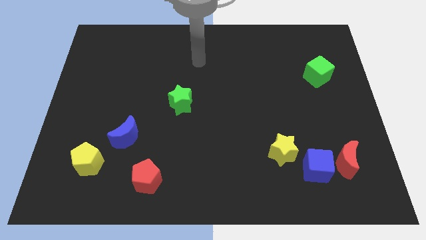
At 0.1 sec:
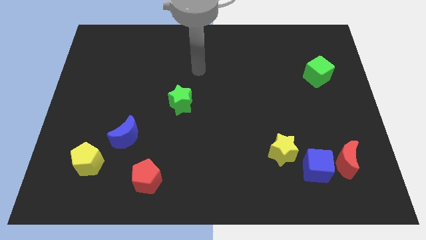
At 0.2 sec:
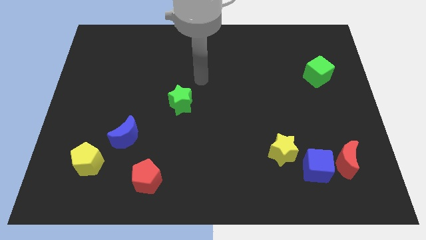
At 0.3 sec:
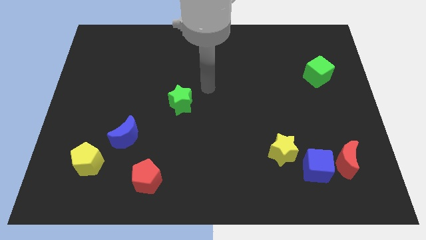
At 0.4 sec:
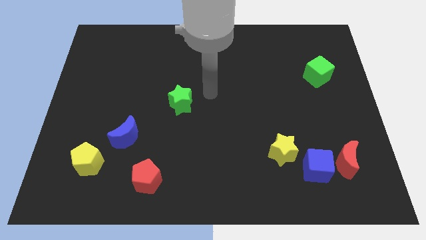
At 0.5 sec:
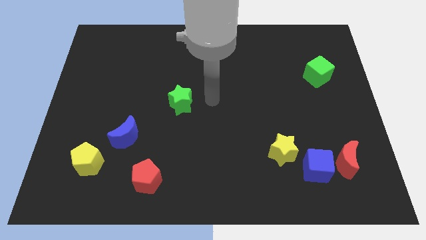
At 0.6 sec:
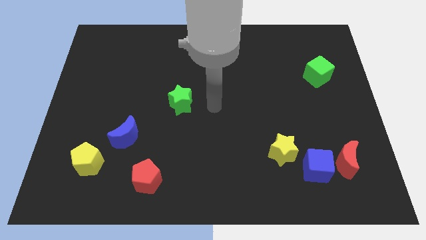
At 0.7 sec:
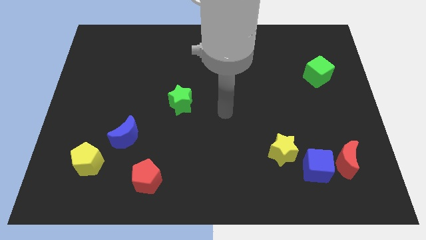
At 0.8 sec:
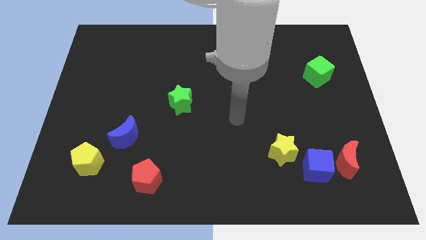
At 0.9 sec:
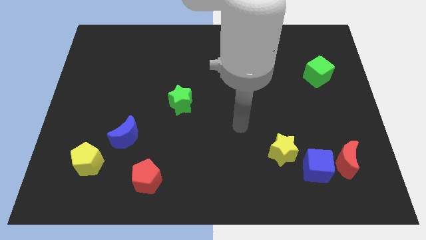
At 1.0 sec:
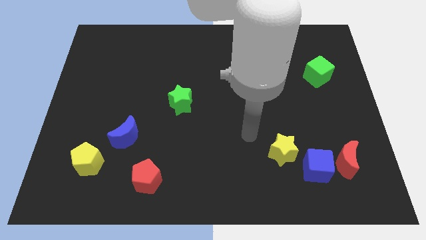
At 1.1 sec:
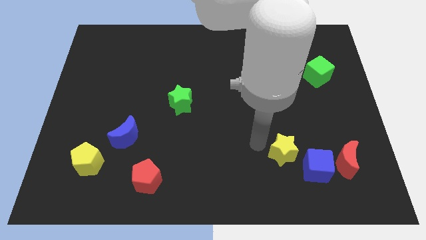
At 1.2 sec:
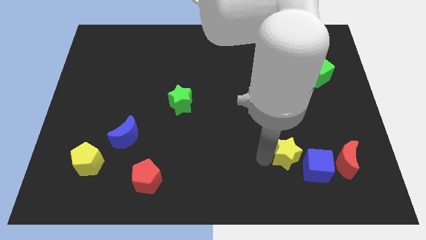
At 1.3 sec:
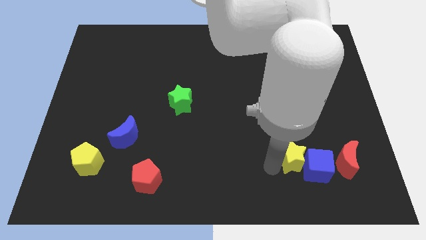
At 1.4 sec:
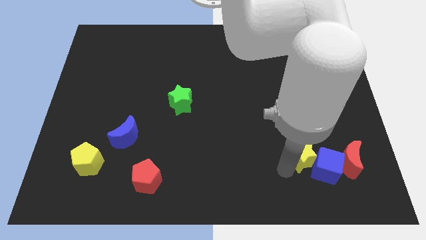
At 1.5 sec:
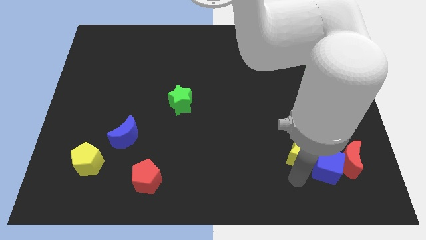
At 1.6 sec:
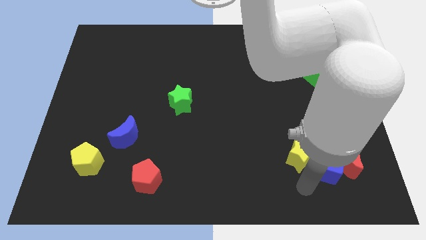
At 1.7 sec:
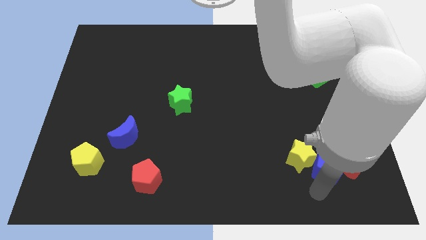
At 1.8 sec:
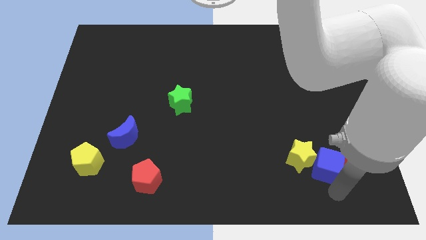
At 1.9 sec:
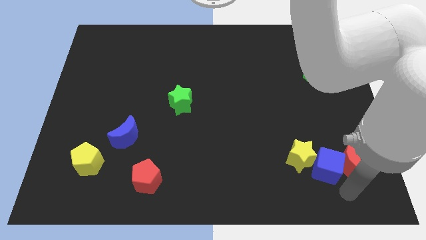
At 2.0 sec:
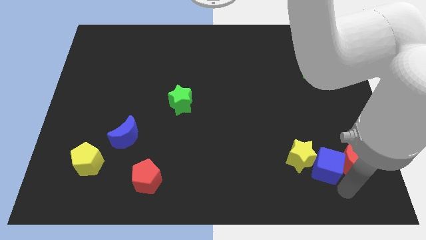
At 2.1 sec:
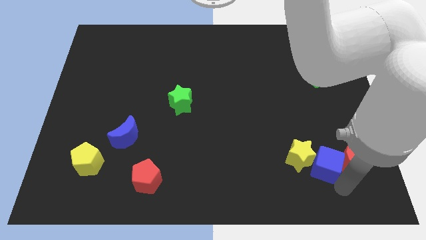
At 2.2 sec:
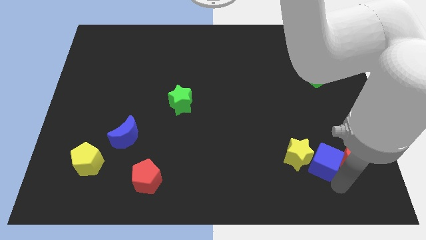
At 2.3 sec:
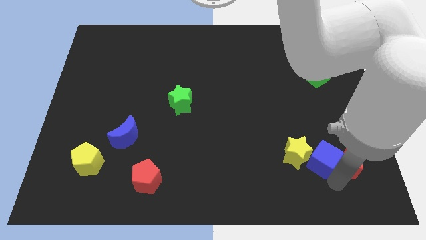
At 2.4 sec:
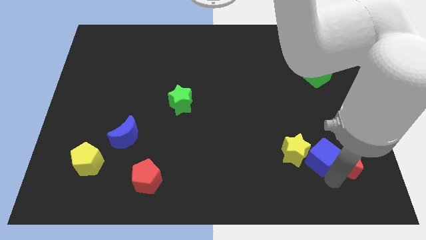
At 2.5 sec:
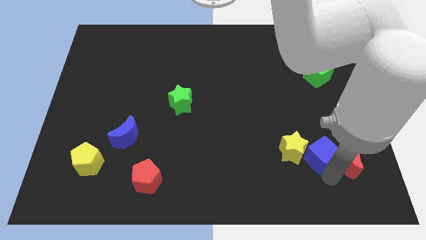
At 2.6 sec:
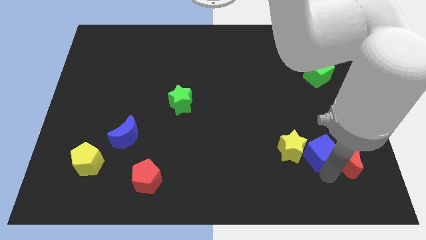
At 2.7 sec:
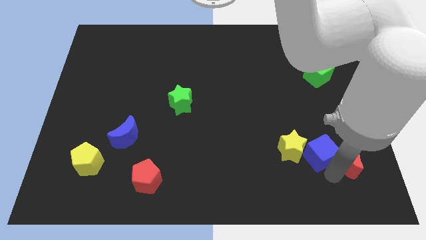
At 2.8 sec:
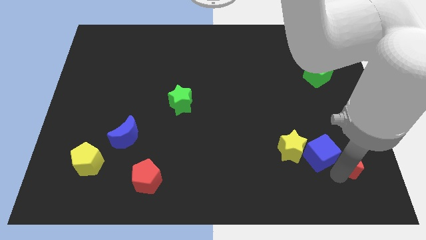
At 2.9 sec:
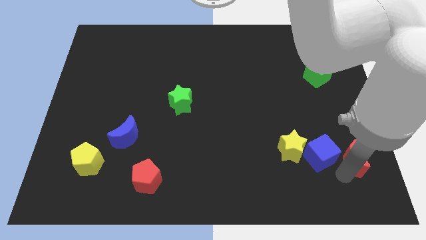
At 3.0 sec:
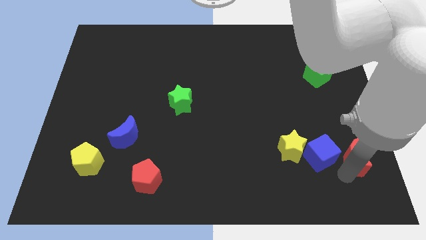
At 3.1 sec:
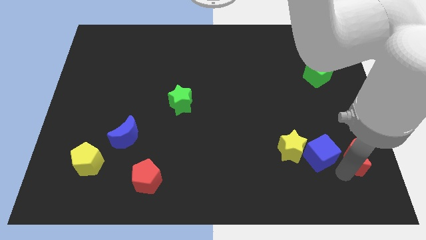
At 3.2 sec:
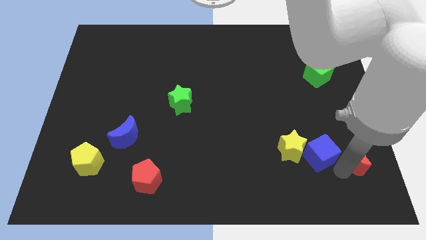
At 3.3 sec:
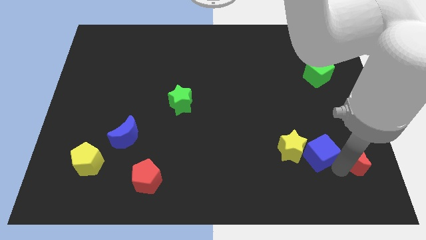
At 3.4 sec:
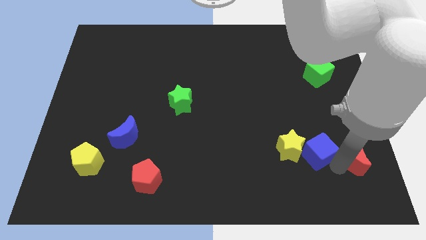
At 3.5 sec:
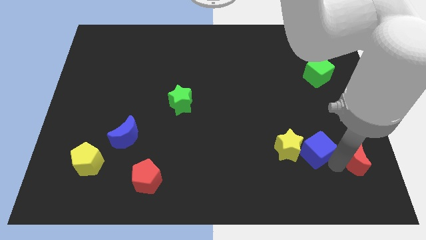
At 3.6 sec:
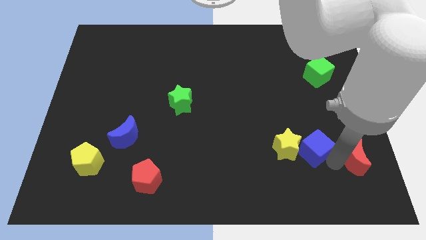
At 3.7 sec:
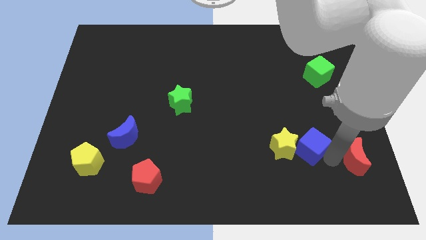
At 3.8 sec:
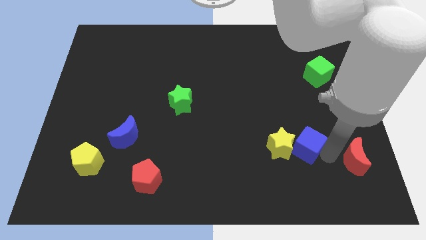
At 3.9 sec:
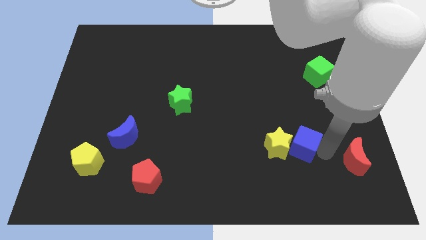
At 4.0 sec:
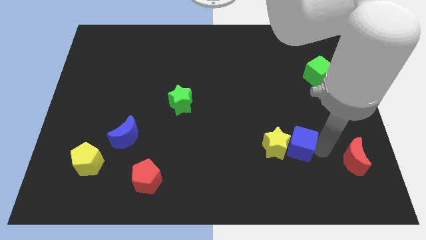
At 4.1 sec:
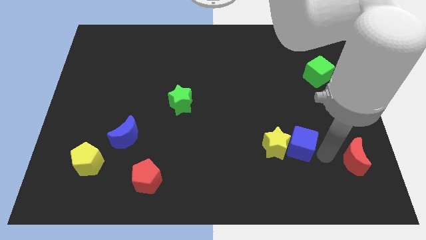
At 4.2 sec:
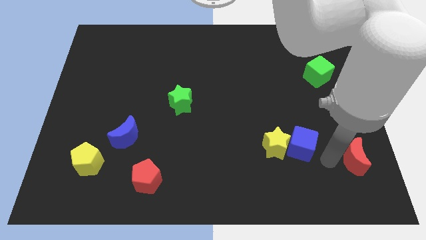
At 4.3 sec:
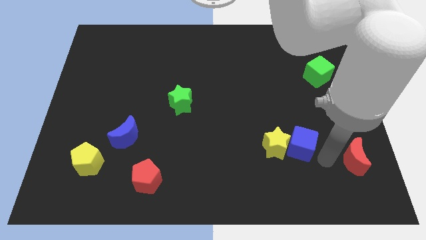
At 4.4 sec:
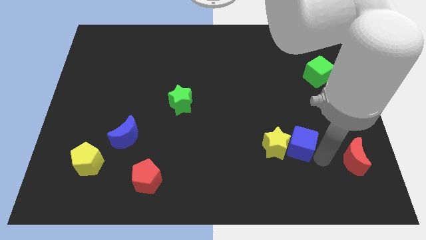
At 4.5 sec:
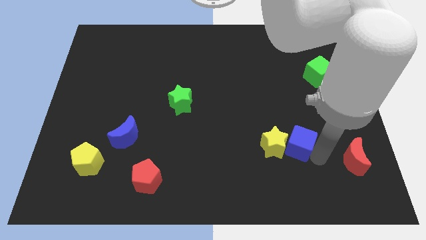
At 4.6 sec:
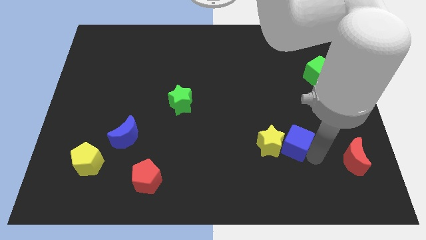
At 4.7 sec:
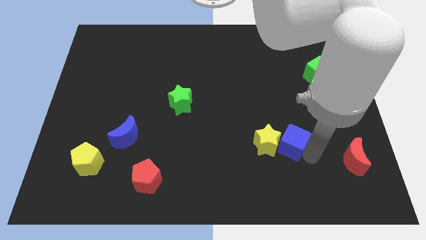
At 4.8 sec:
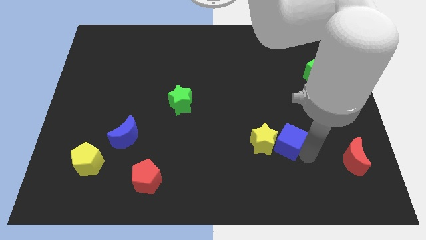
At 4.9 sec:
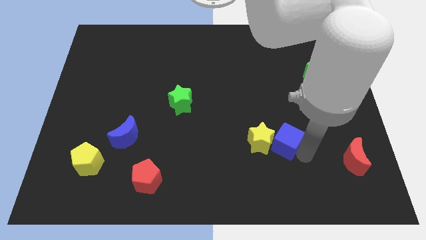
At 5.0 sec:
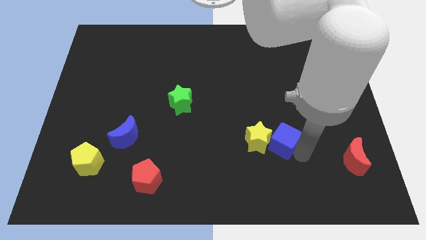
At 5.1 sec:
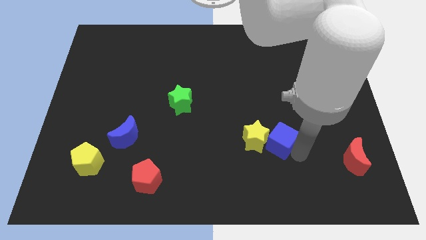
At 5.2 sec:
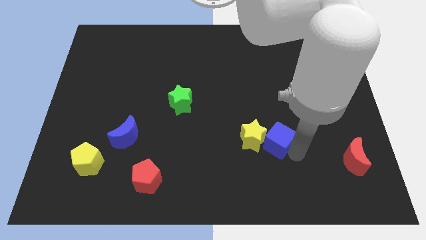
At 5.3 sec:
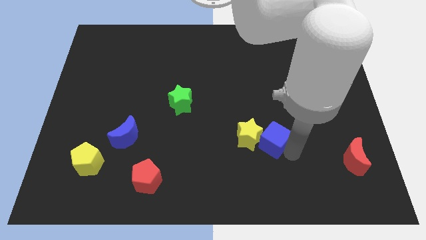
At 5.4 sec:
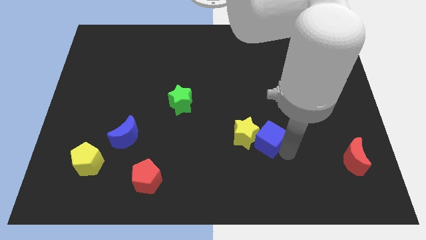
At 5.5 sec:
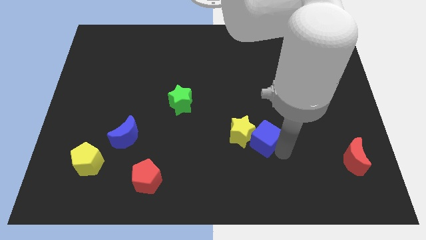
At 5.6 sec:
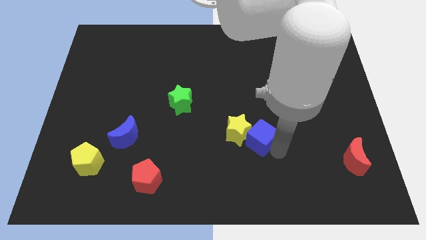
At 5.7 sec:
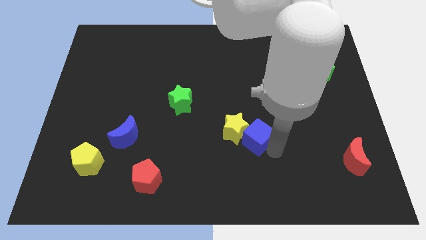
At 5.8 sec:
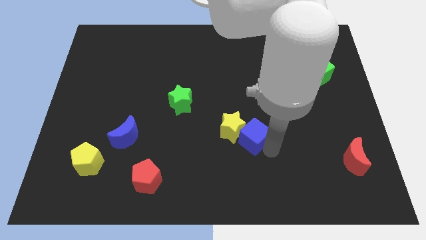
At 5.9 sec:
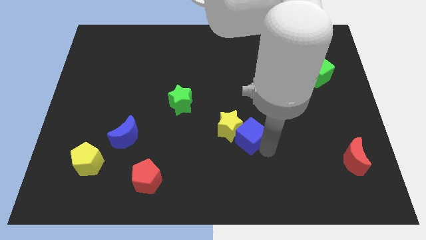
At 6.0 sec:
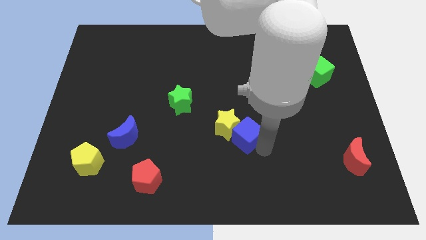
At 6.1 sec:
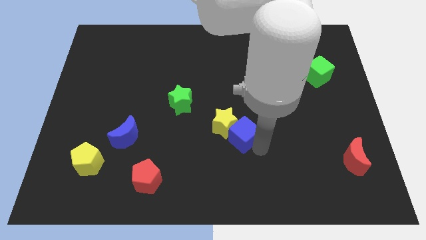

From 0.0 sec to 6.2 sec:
put the blue cube to the center of the board

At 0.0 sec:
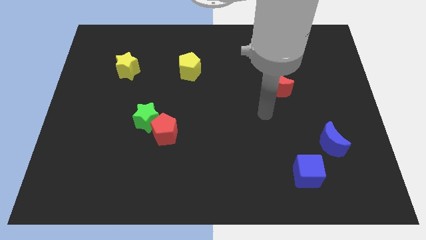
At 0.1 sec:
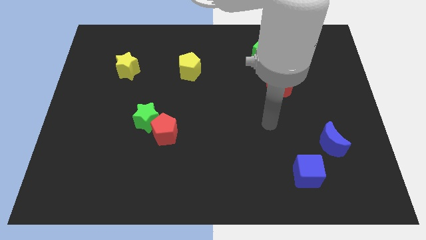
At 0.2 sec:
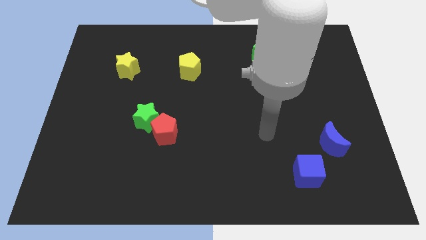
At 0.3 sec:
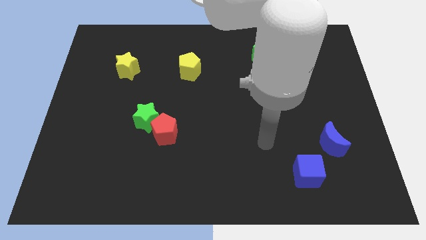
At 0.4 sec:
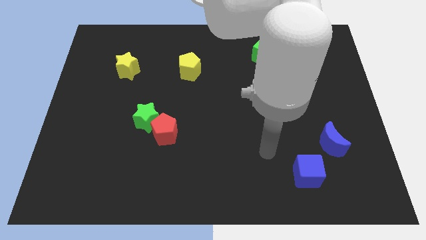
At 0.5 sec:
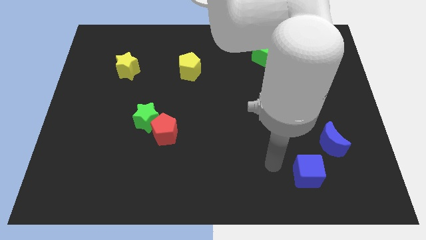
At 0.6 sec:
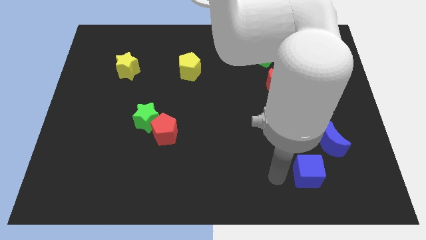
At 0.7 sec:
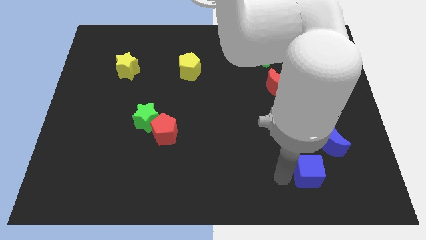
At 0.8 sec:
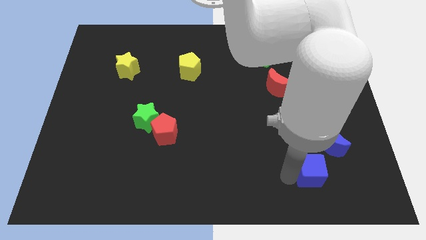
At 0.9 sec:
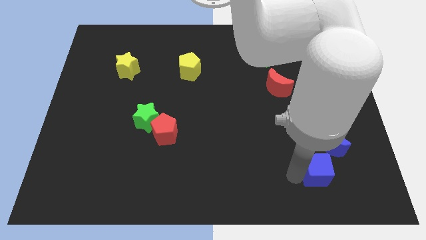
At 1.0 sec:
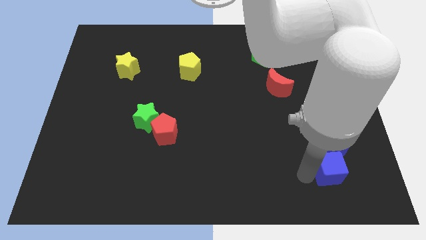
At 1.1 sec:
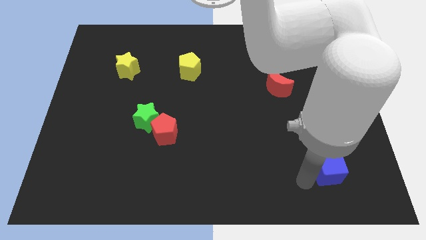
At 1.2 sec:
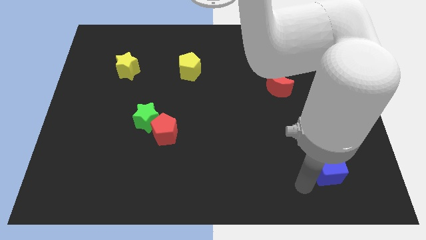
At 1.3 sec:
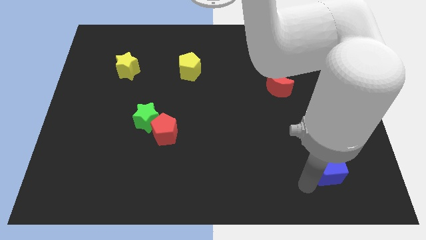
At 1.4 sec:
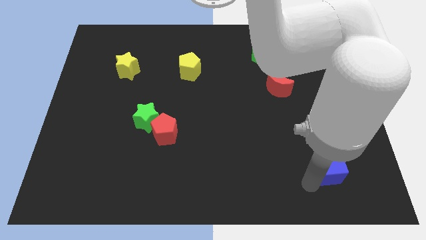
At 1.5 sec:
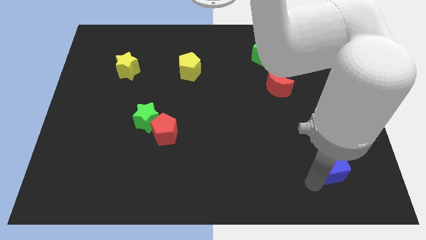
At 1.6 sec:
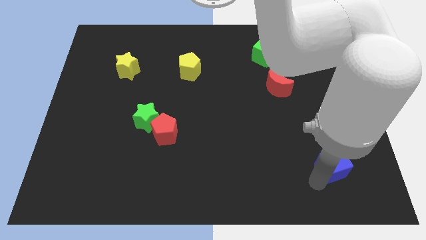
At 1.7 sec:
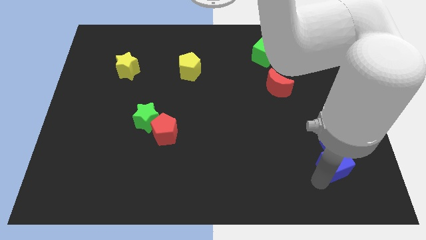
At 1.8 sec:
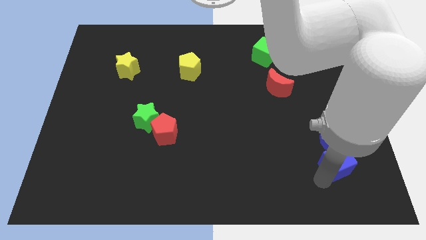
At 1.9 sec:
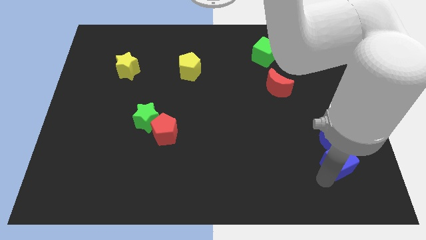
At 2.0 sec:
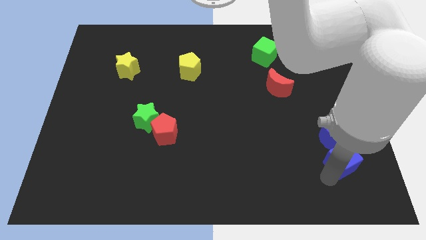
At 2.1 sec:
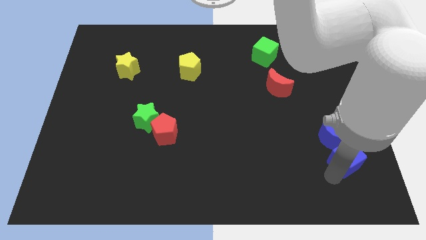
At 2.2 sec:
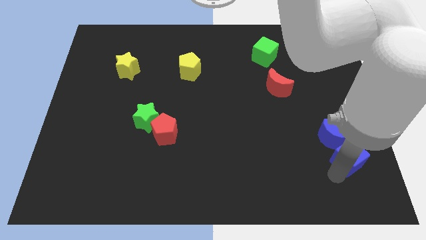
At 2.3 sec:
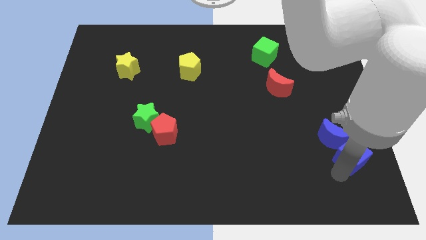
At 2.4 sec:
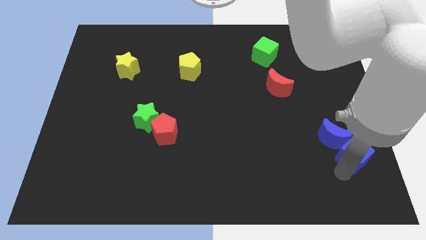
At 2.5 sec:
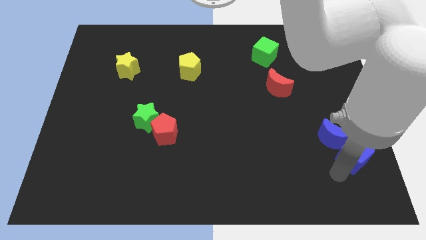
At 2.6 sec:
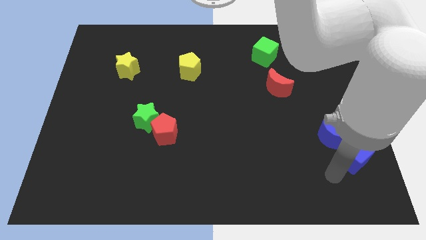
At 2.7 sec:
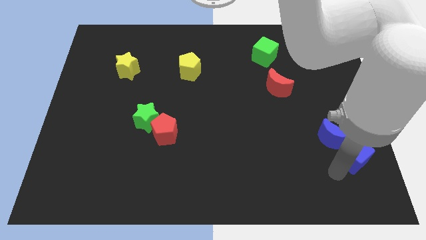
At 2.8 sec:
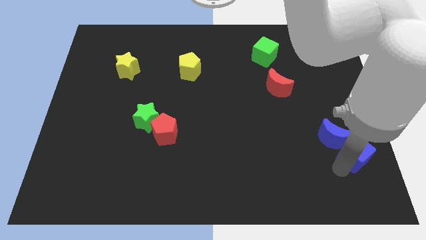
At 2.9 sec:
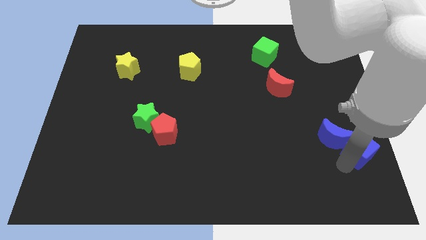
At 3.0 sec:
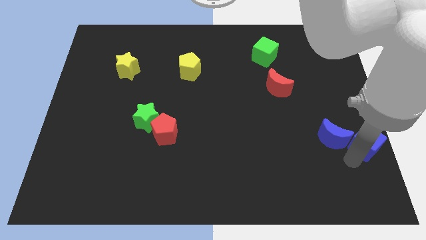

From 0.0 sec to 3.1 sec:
put the blue cube to the center right
